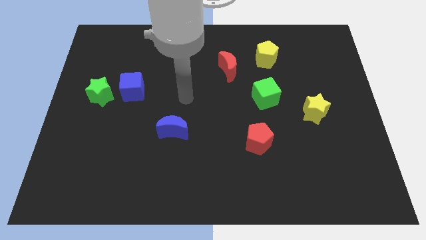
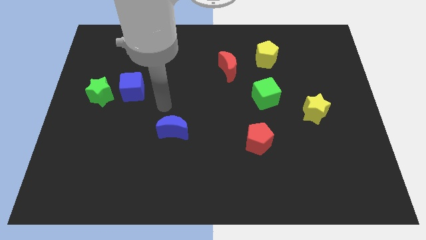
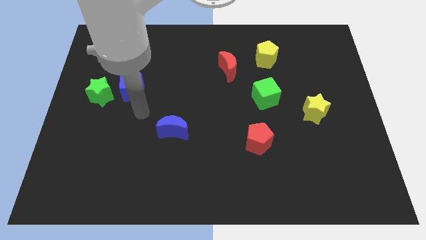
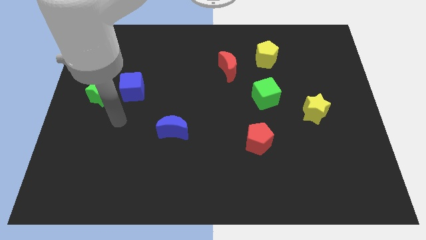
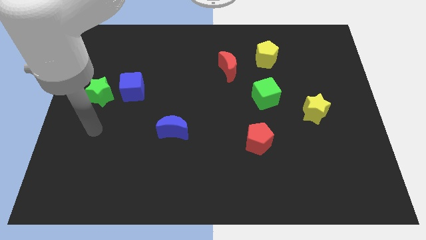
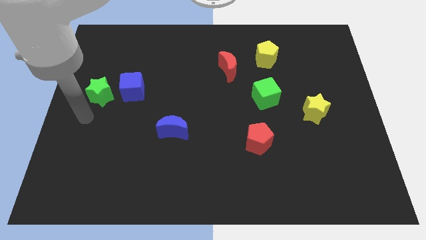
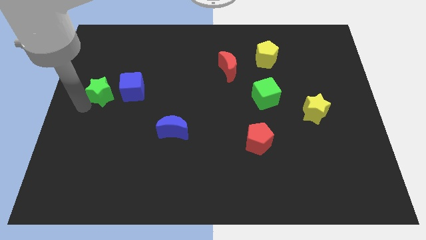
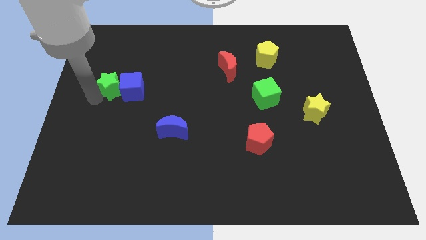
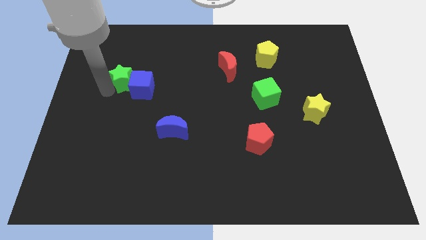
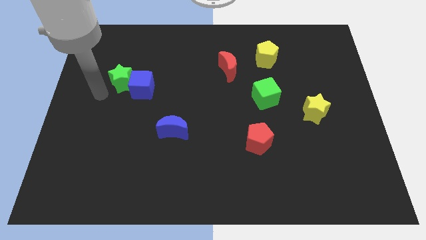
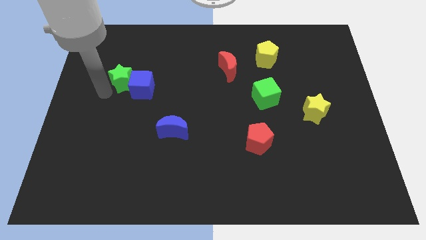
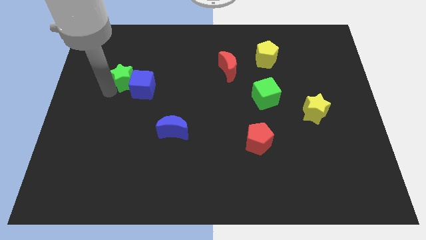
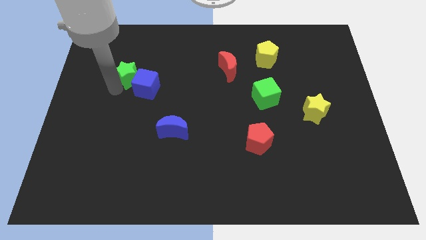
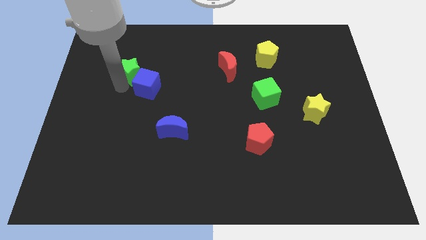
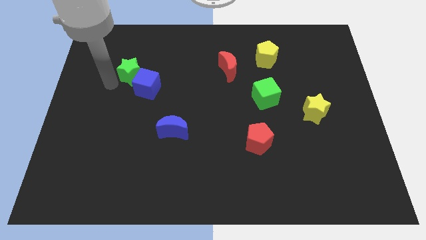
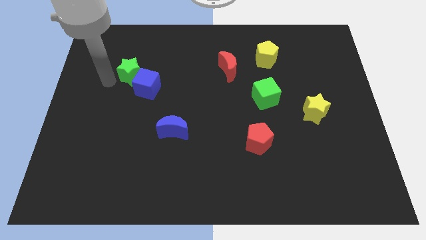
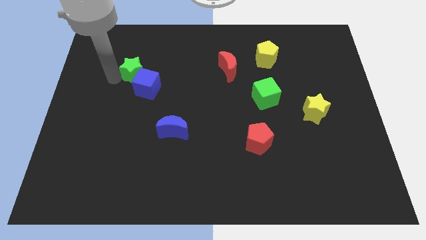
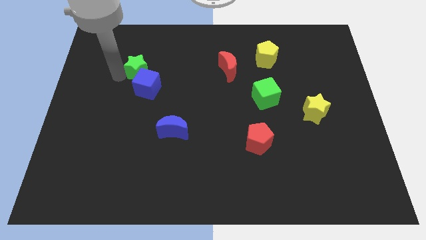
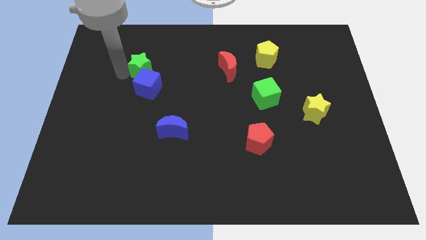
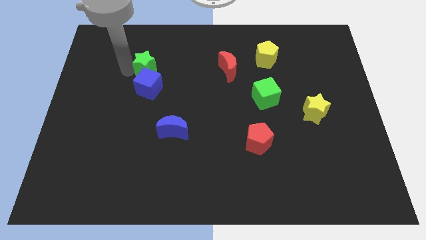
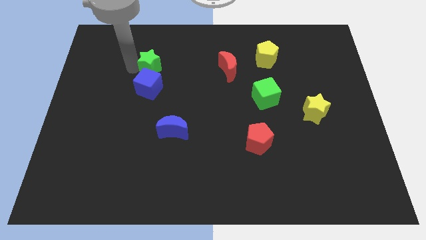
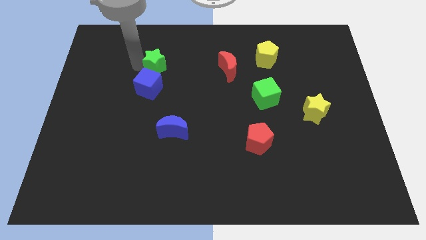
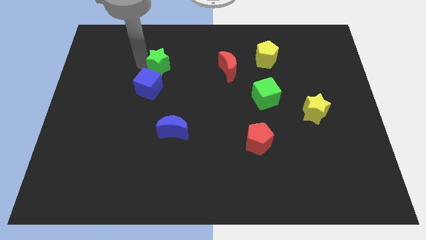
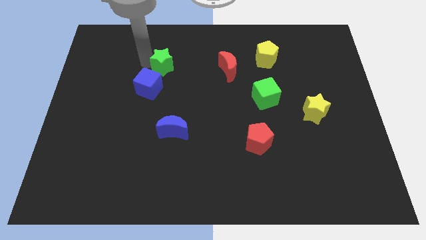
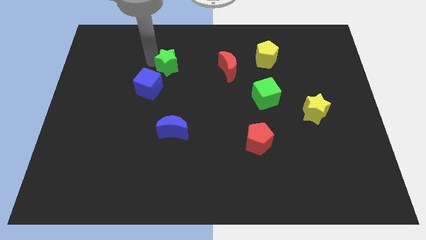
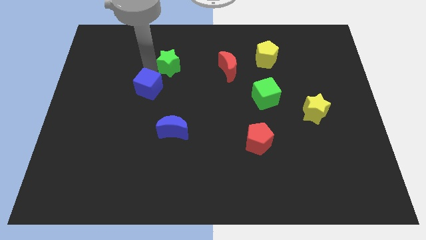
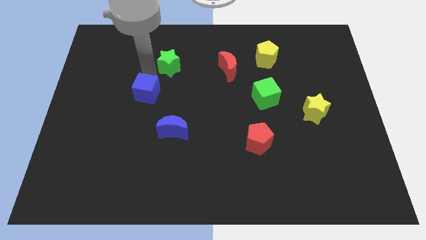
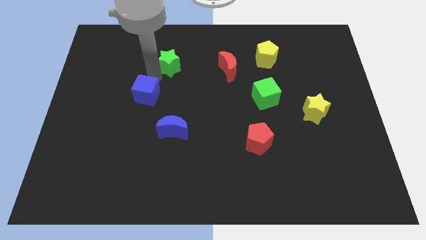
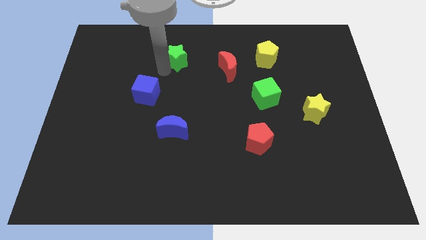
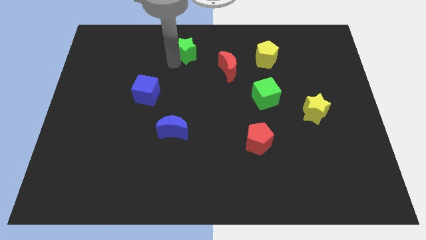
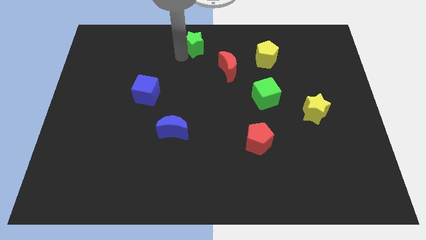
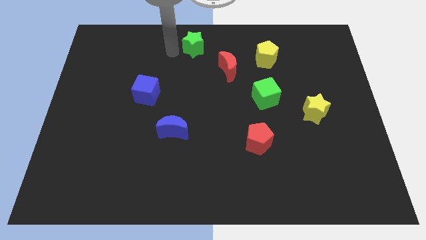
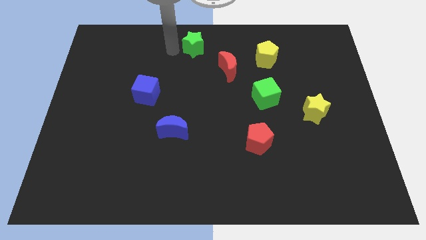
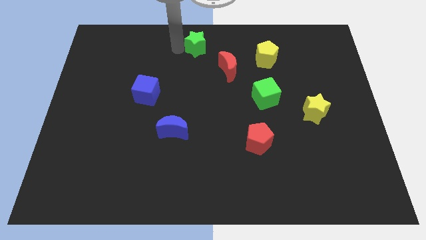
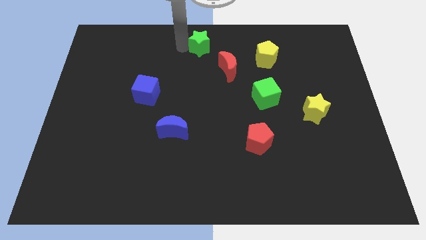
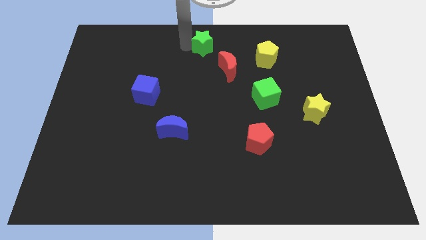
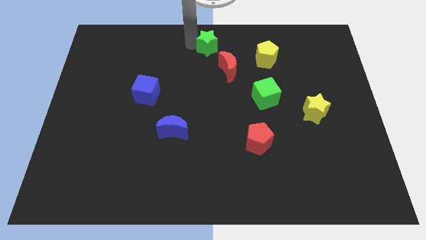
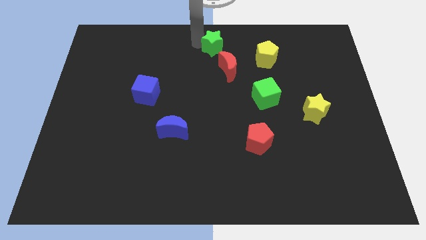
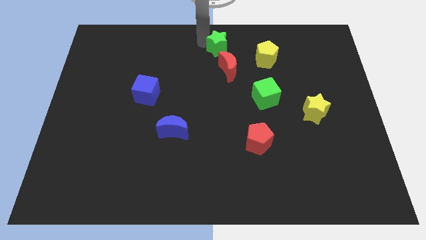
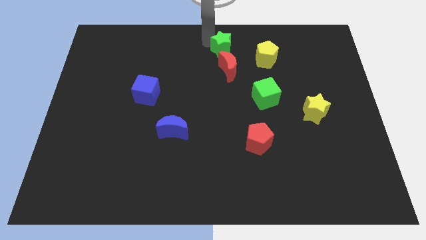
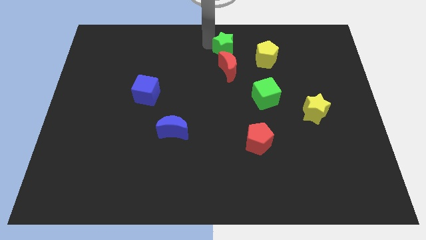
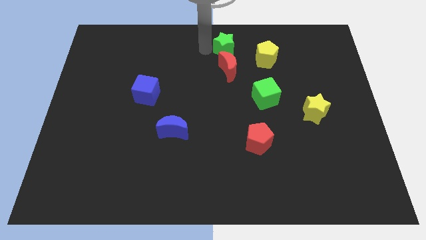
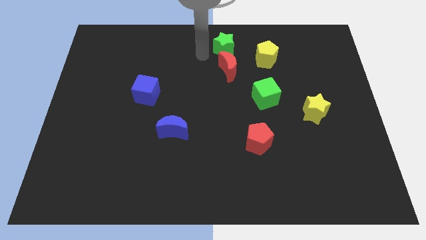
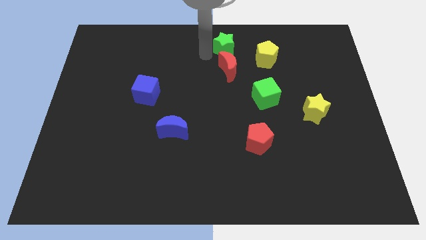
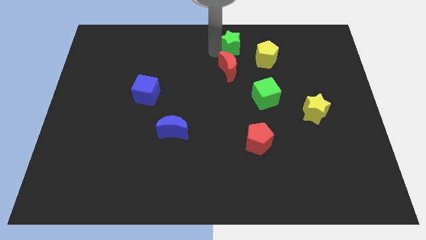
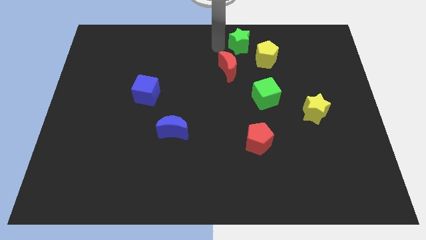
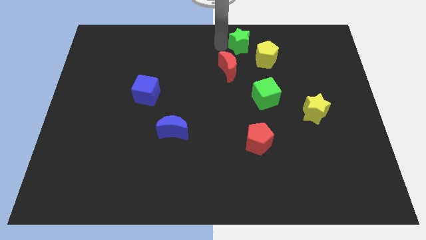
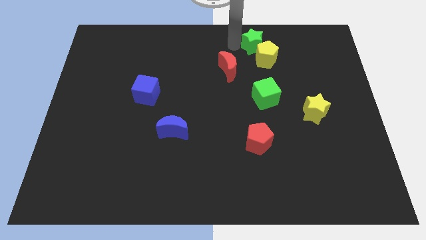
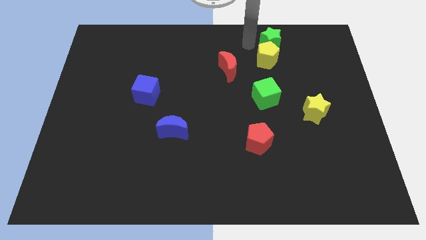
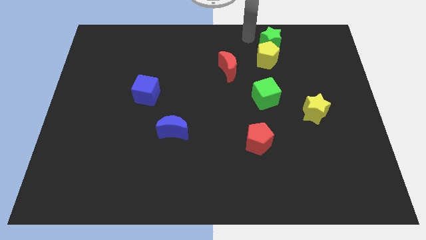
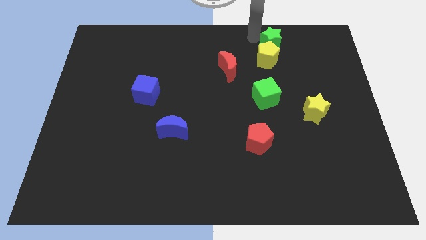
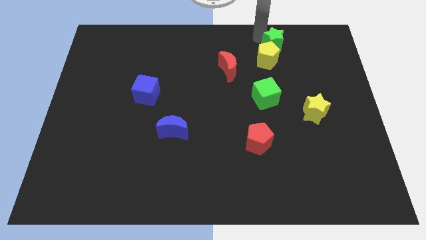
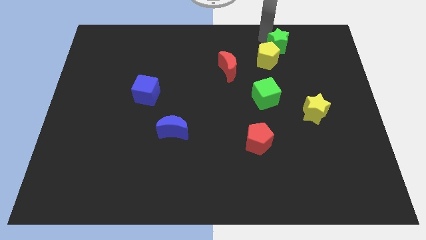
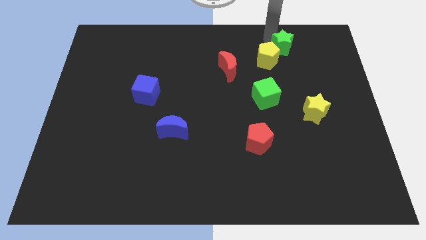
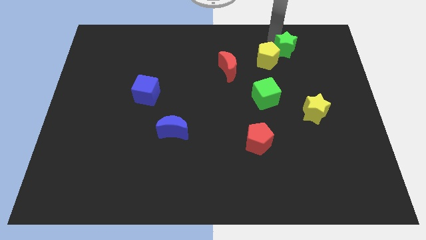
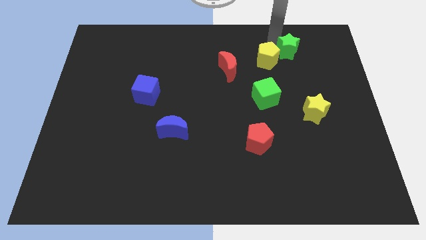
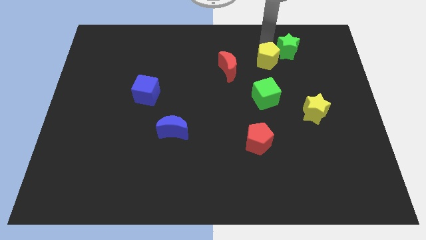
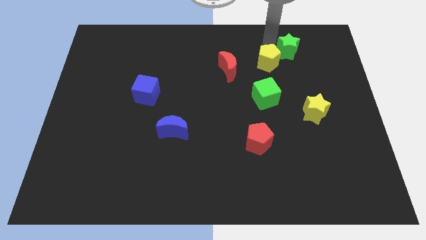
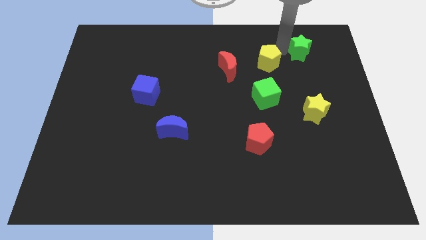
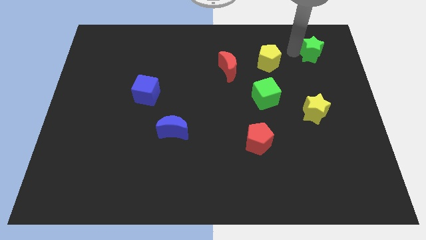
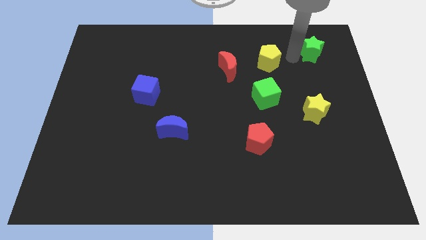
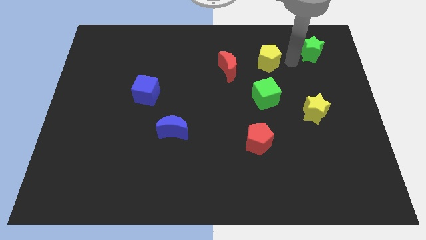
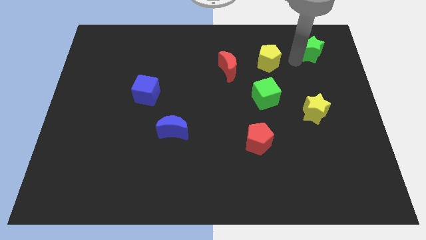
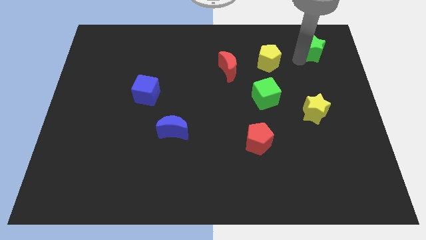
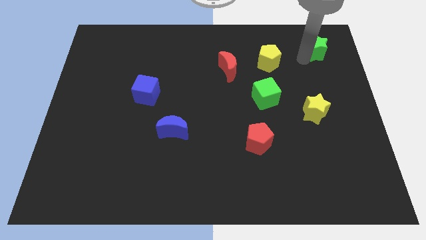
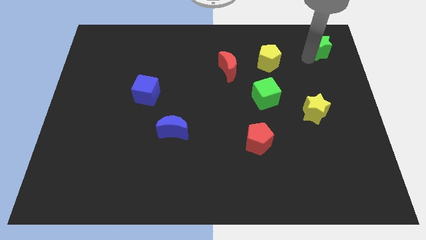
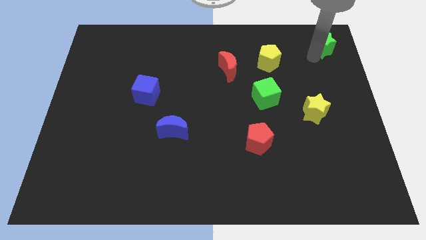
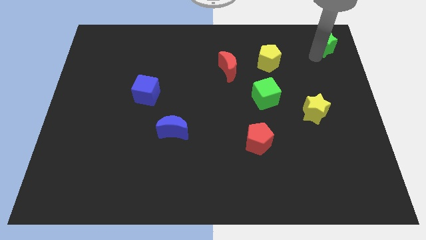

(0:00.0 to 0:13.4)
slide the green star to the upper right corner
